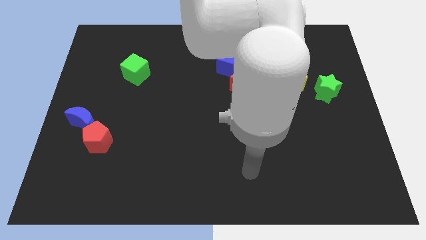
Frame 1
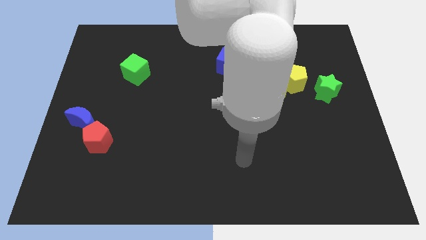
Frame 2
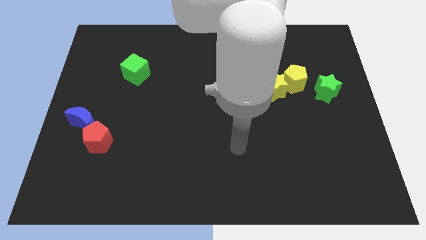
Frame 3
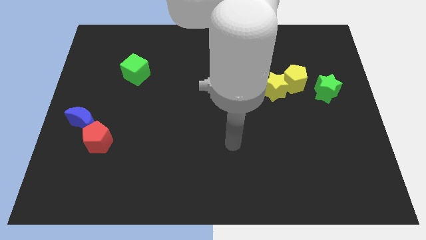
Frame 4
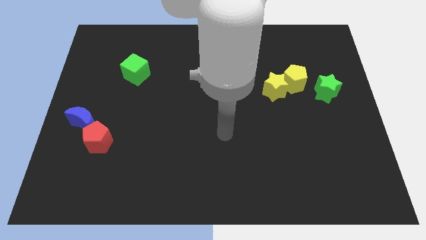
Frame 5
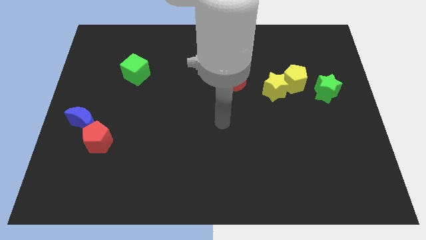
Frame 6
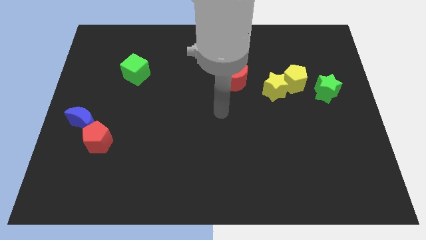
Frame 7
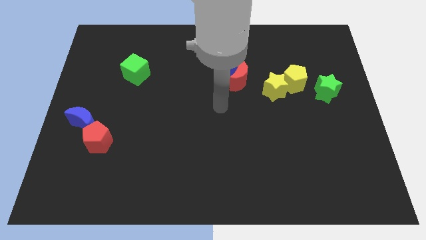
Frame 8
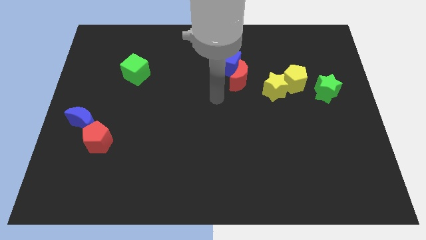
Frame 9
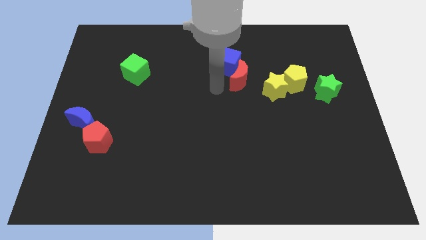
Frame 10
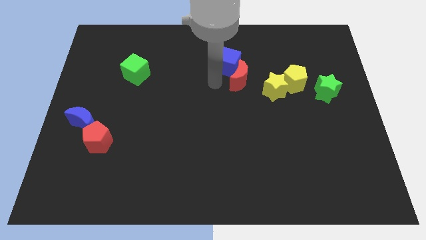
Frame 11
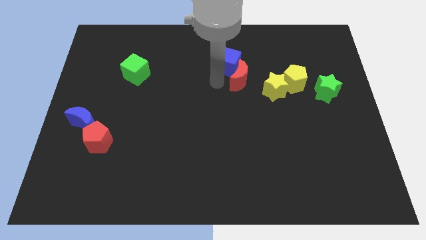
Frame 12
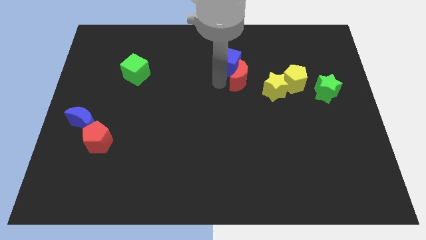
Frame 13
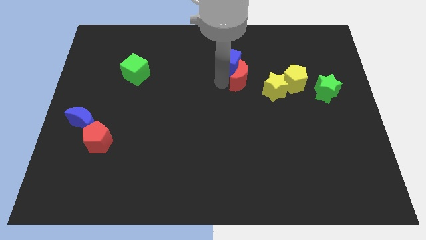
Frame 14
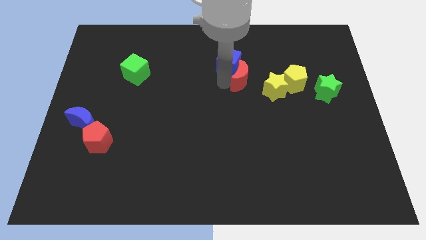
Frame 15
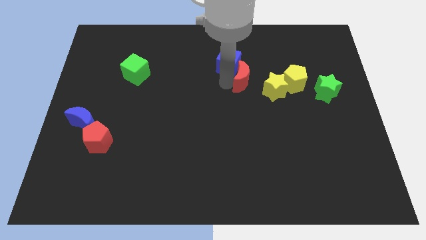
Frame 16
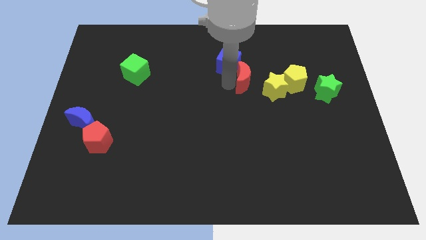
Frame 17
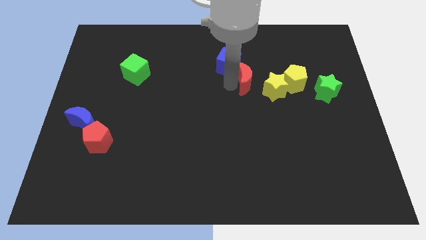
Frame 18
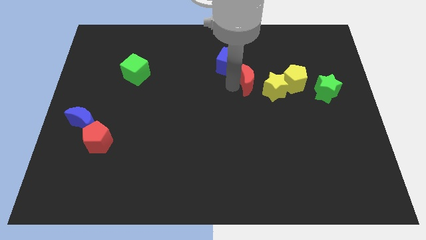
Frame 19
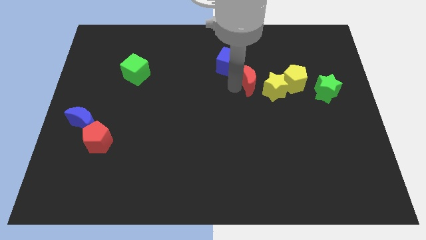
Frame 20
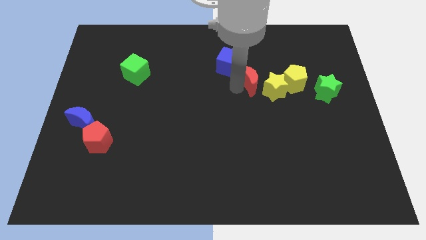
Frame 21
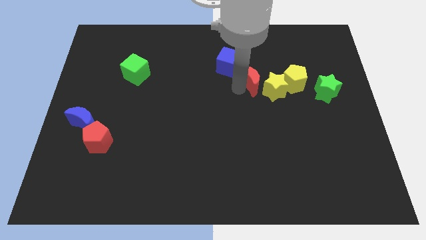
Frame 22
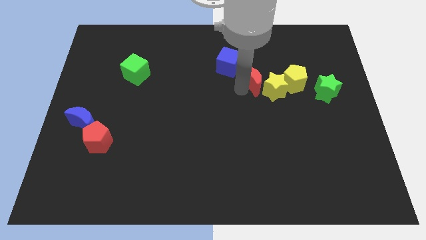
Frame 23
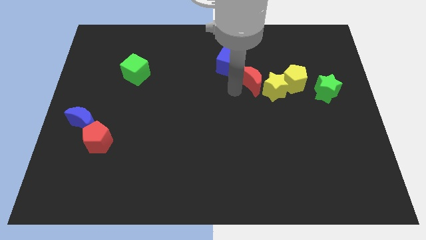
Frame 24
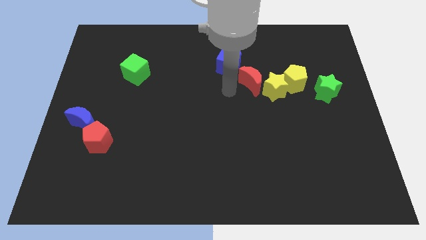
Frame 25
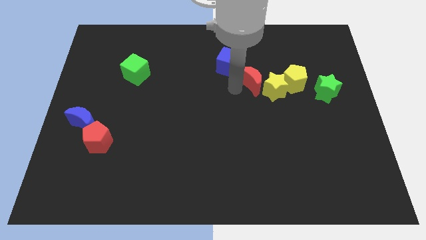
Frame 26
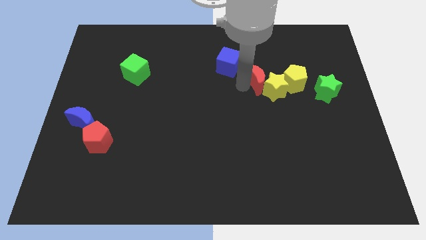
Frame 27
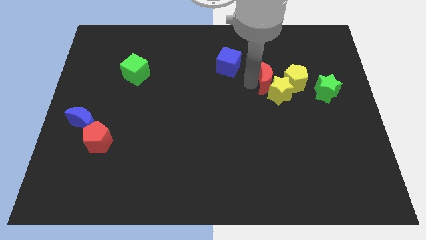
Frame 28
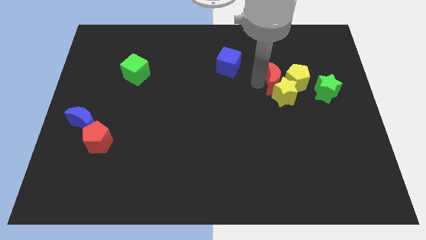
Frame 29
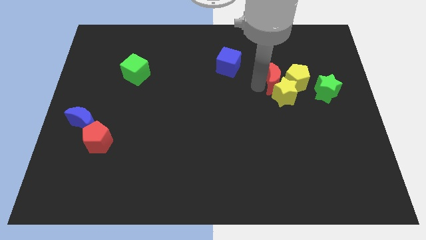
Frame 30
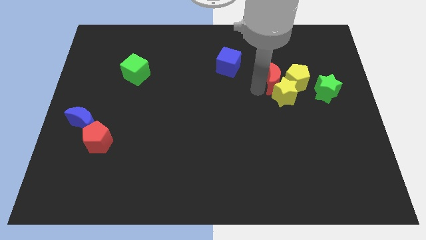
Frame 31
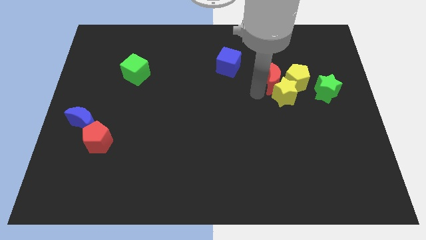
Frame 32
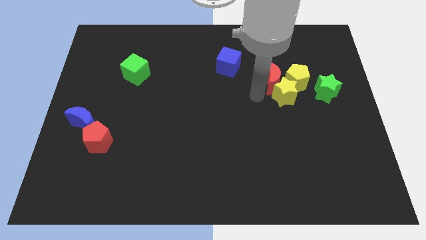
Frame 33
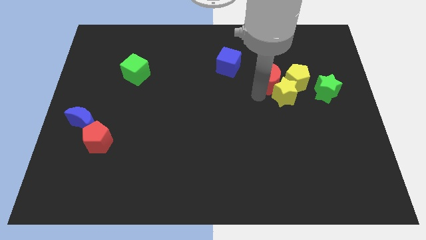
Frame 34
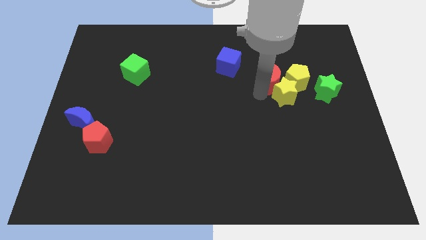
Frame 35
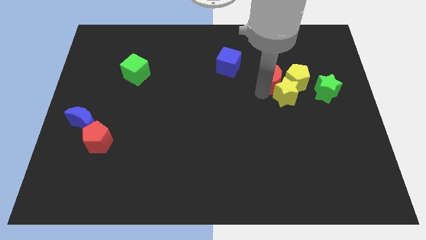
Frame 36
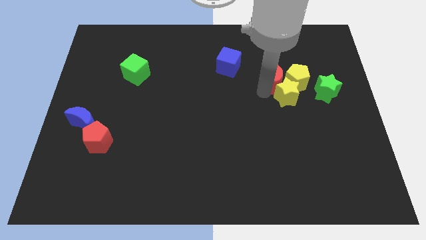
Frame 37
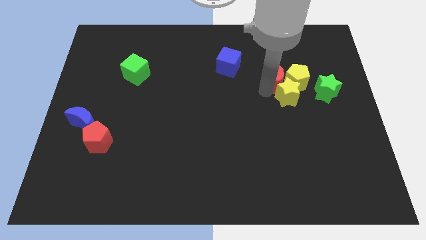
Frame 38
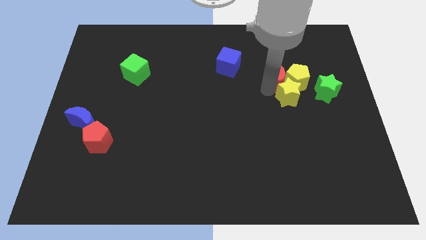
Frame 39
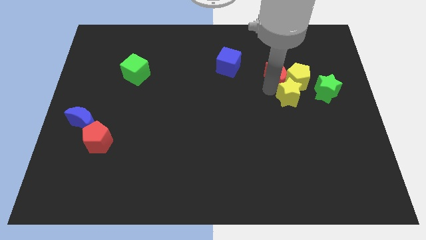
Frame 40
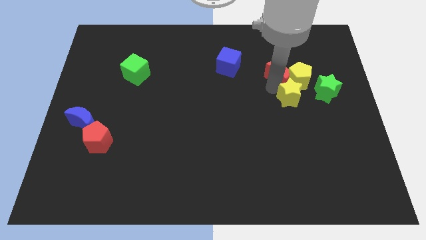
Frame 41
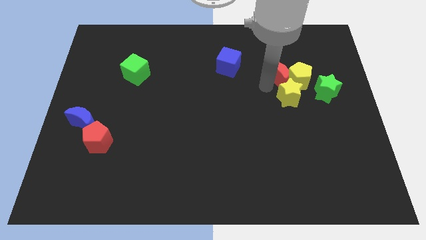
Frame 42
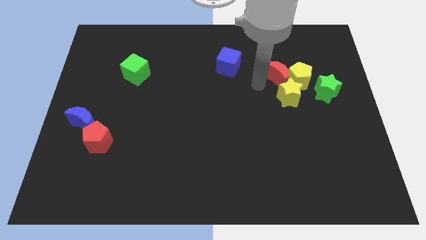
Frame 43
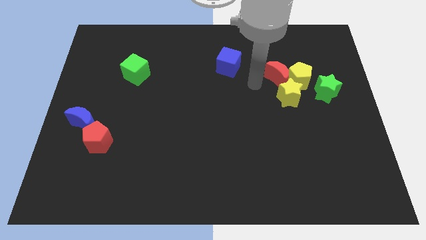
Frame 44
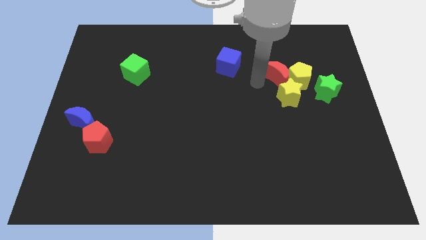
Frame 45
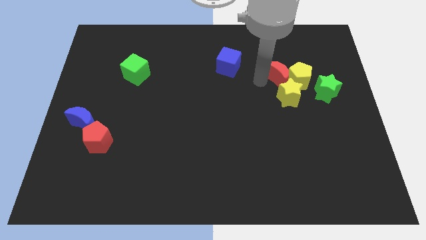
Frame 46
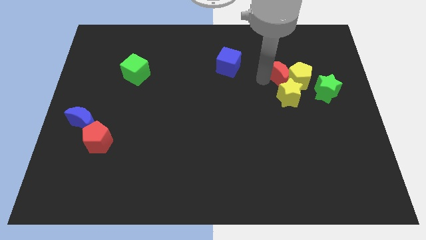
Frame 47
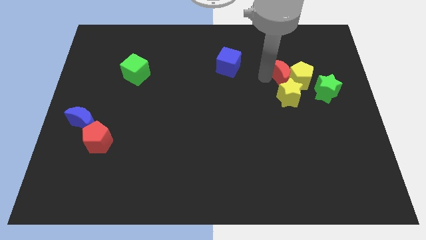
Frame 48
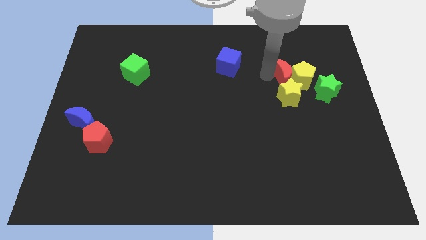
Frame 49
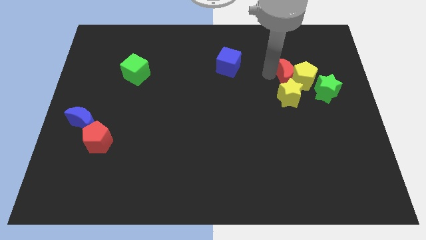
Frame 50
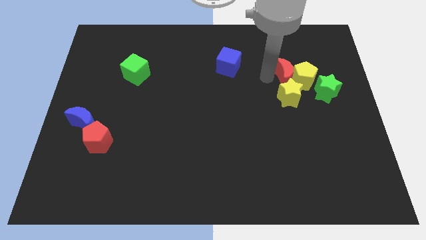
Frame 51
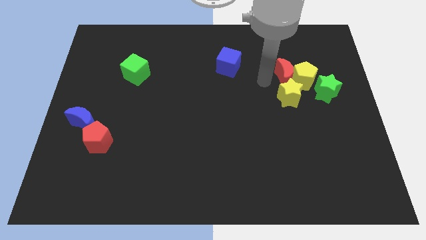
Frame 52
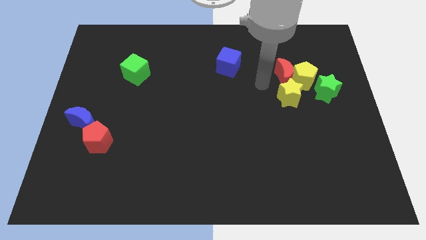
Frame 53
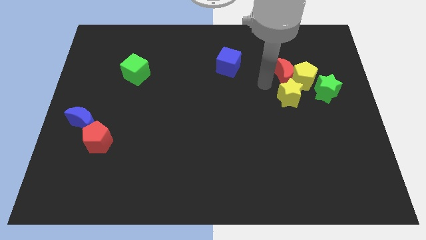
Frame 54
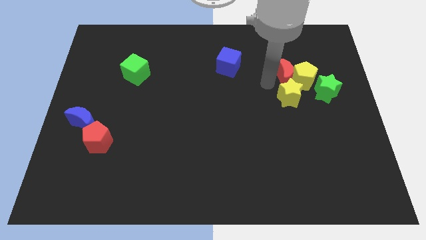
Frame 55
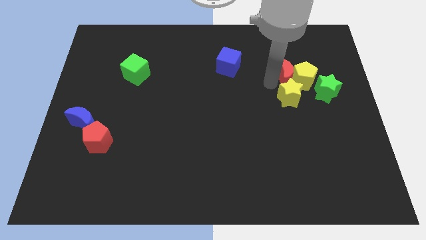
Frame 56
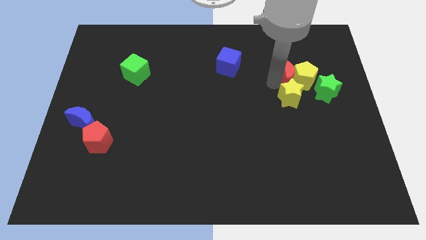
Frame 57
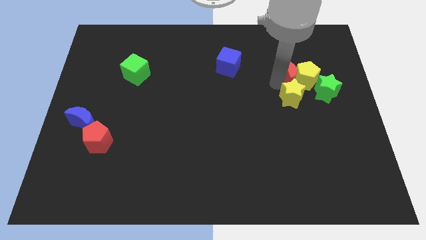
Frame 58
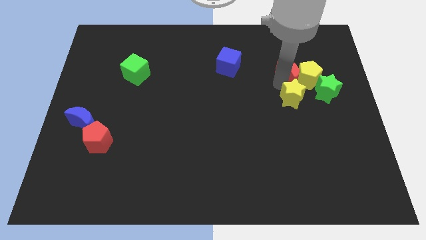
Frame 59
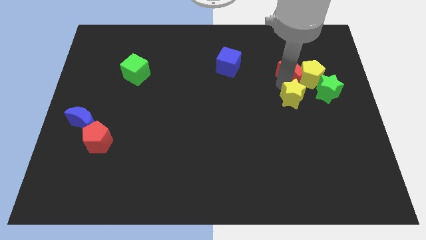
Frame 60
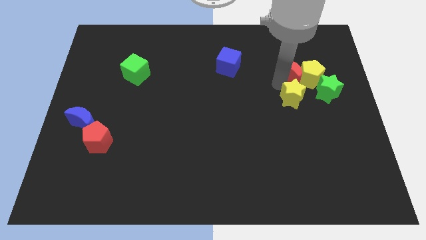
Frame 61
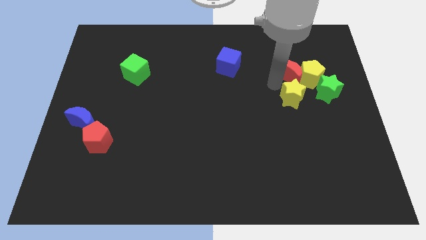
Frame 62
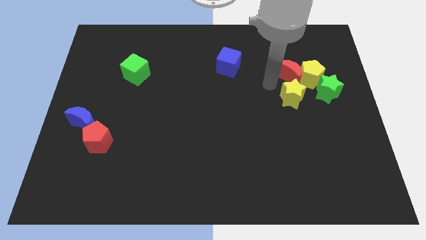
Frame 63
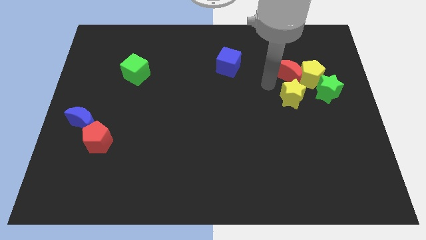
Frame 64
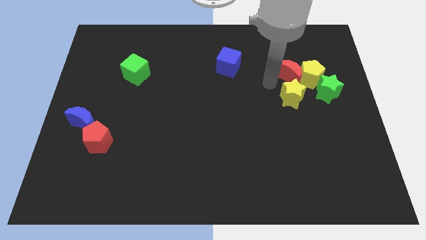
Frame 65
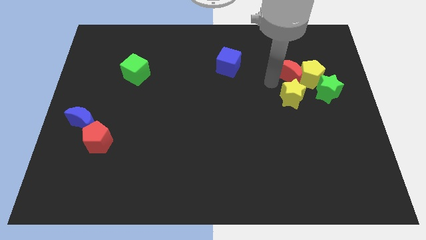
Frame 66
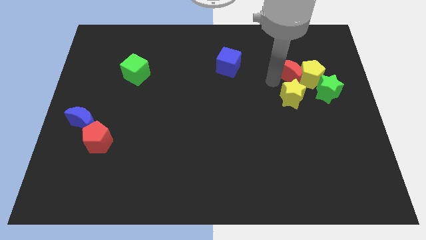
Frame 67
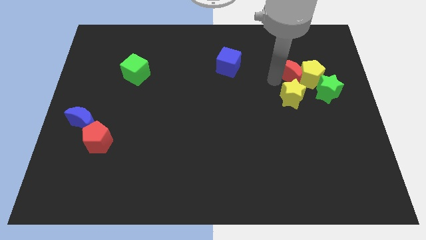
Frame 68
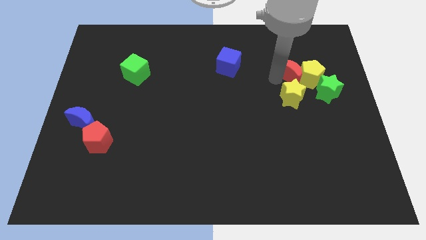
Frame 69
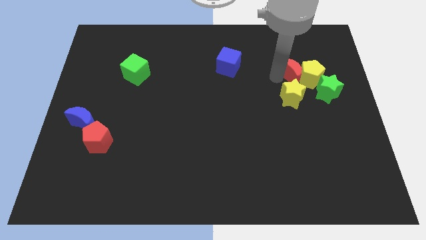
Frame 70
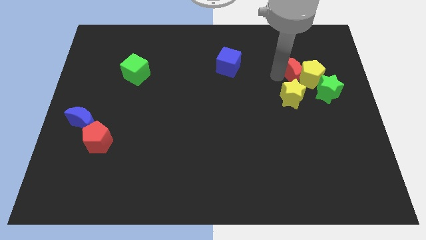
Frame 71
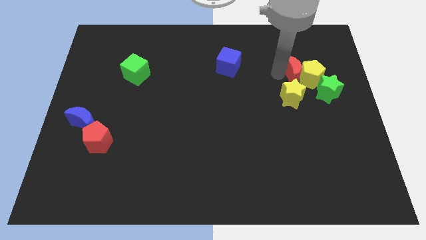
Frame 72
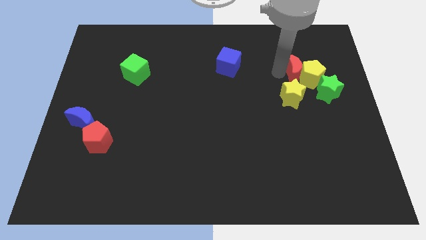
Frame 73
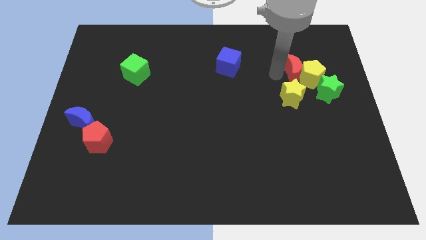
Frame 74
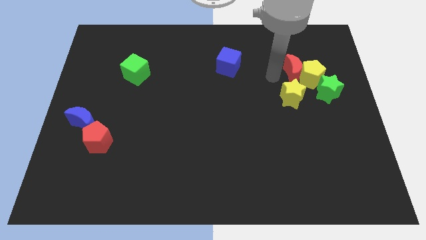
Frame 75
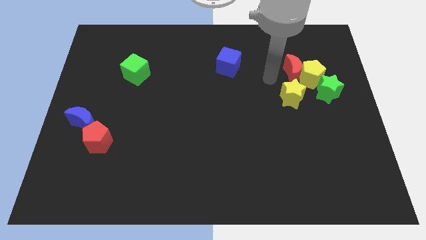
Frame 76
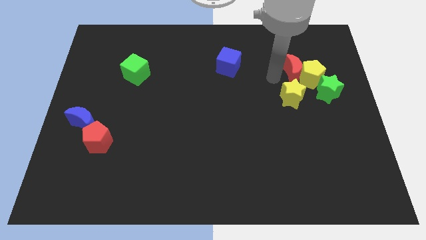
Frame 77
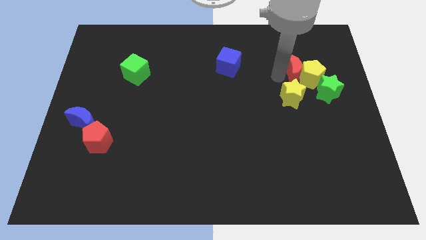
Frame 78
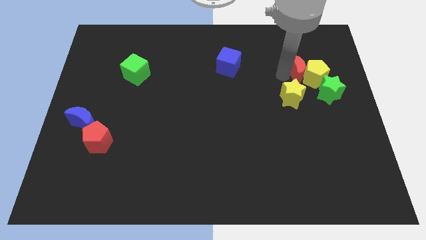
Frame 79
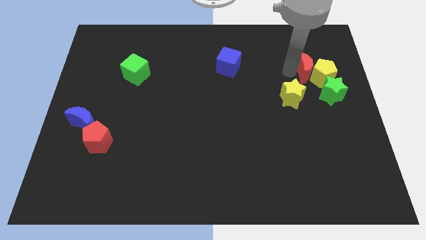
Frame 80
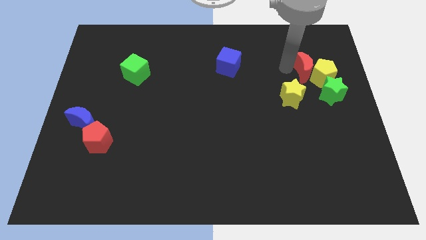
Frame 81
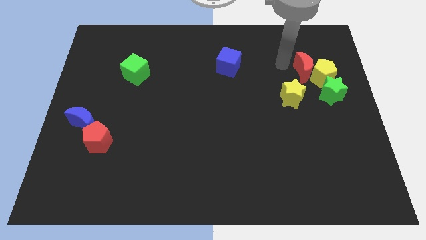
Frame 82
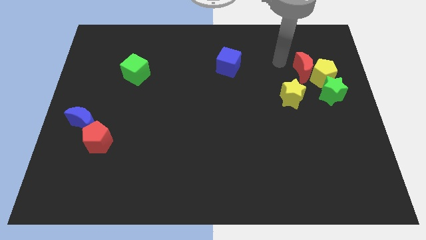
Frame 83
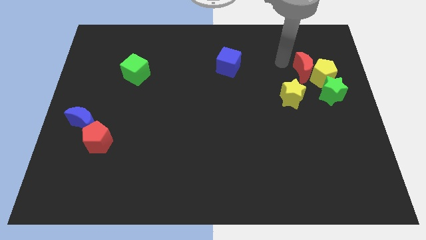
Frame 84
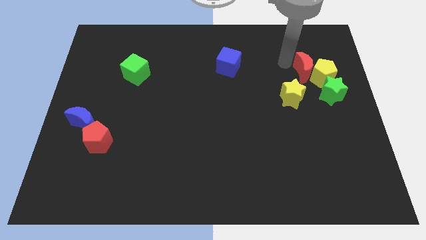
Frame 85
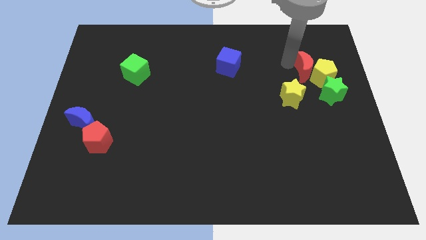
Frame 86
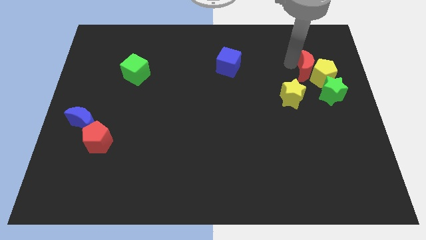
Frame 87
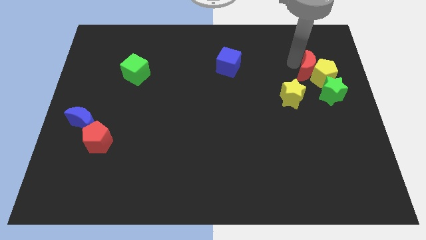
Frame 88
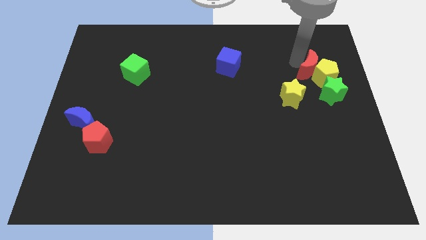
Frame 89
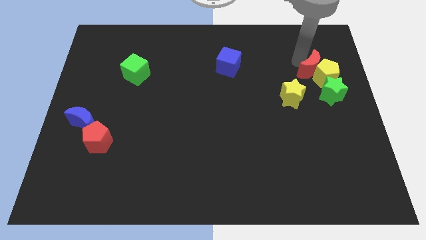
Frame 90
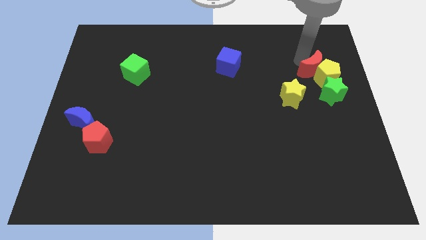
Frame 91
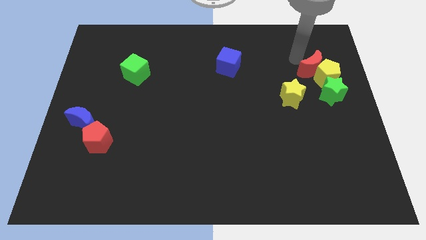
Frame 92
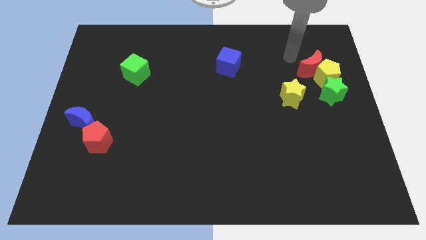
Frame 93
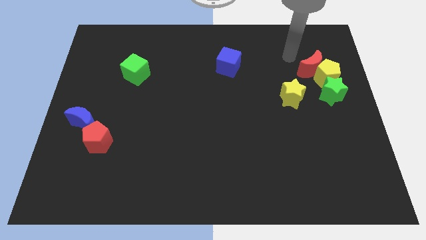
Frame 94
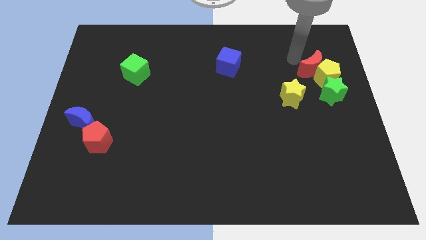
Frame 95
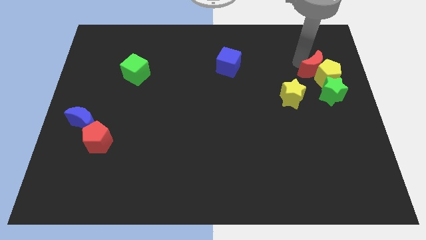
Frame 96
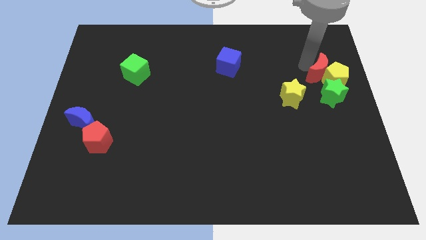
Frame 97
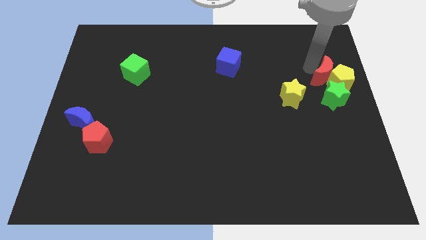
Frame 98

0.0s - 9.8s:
slide the red moon to the center right
